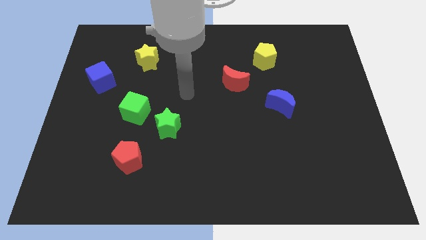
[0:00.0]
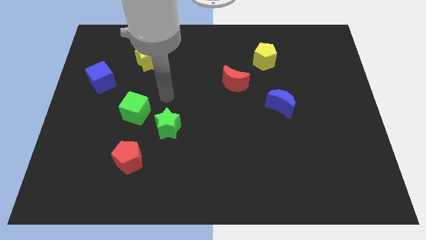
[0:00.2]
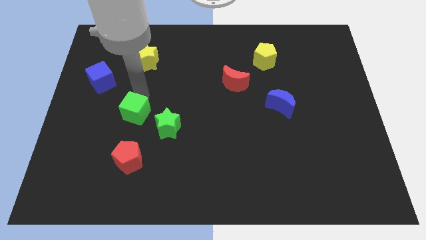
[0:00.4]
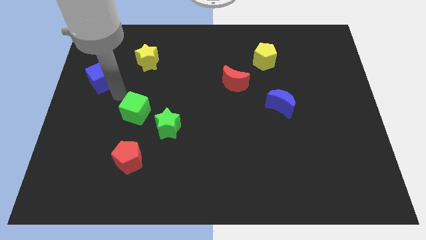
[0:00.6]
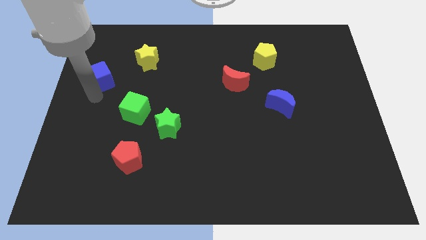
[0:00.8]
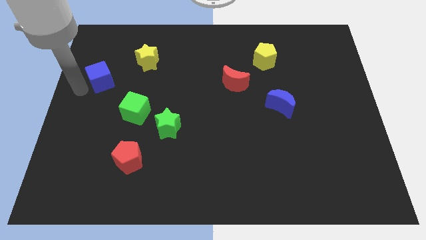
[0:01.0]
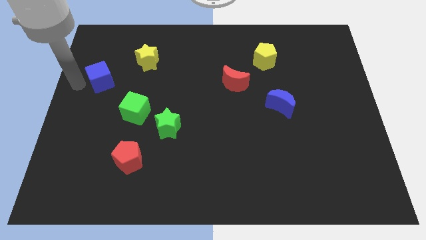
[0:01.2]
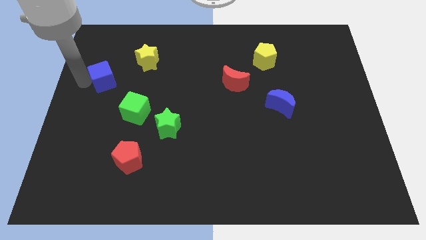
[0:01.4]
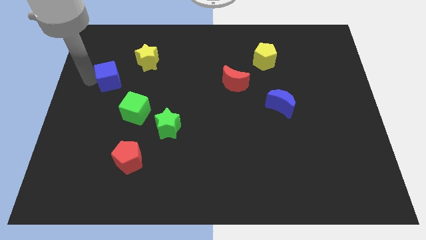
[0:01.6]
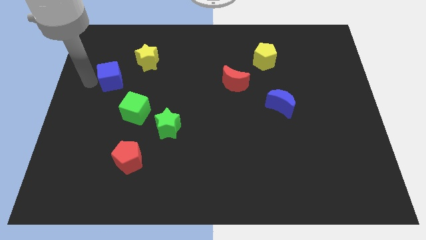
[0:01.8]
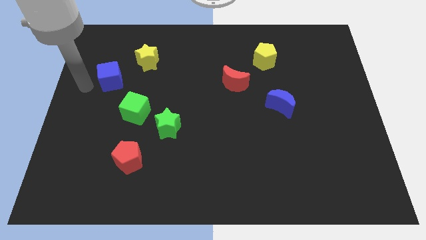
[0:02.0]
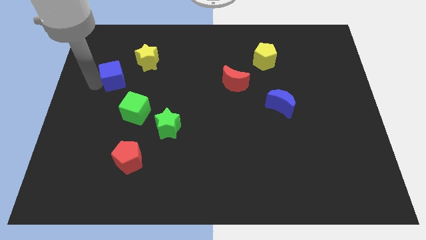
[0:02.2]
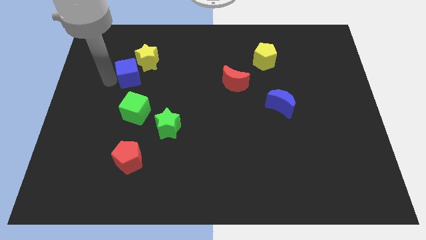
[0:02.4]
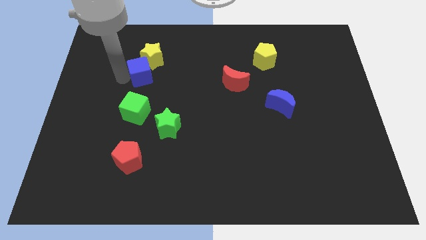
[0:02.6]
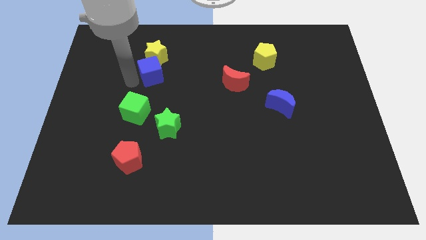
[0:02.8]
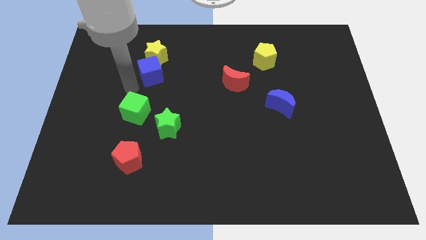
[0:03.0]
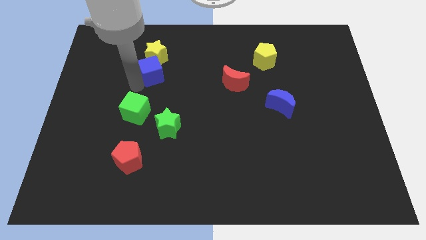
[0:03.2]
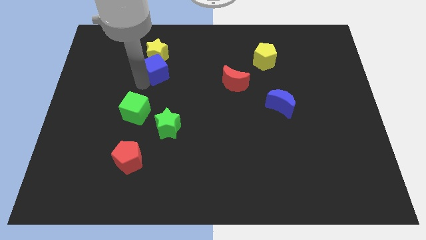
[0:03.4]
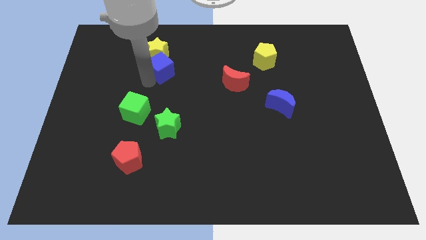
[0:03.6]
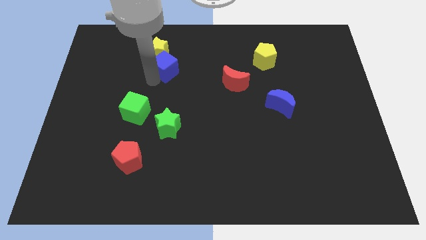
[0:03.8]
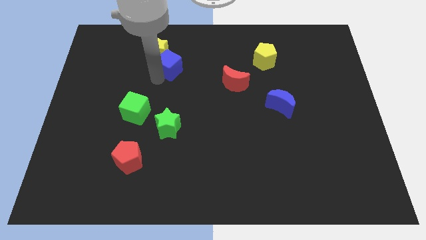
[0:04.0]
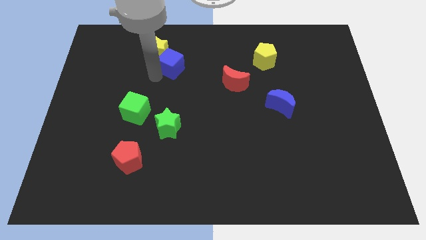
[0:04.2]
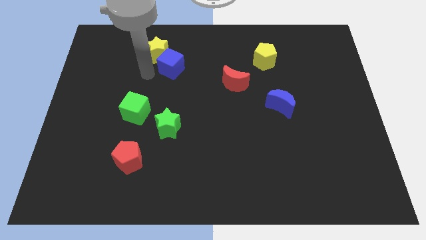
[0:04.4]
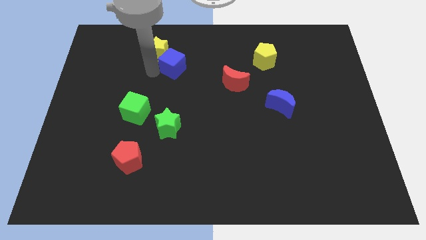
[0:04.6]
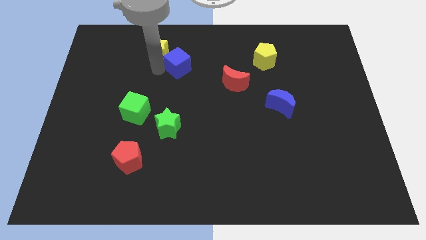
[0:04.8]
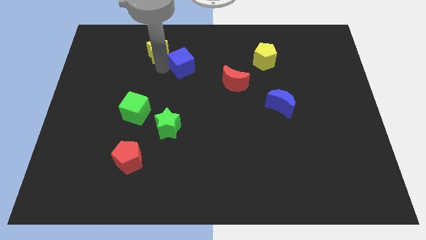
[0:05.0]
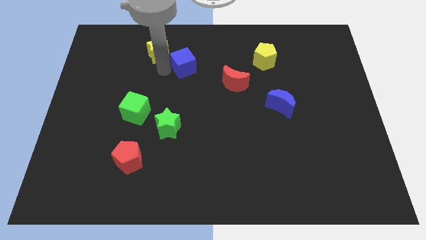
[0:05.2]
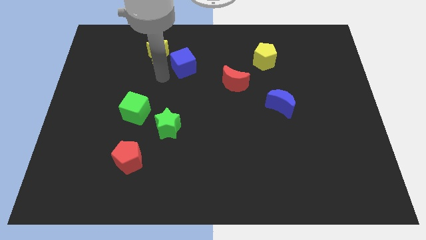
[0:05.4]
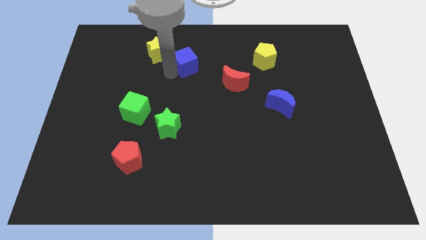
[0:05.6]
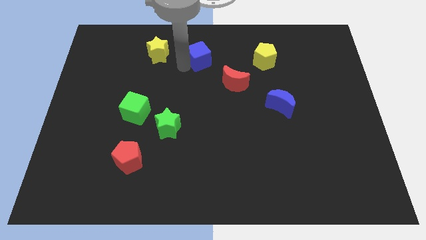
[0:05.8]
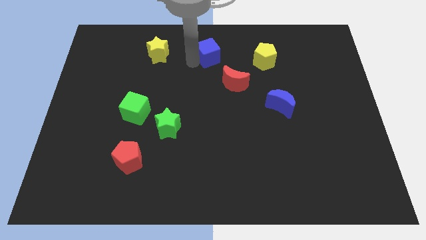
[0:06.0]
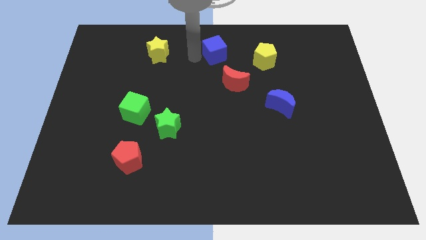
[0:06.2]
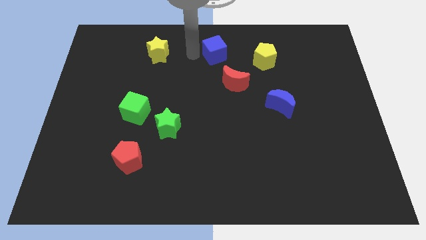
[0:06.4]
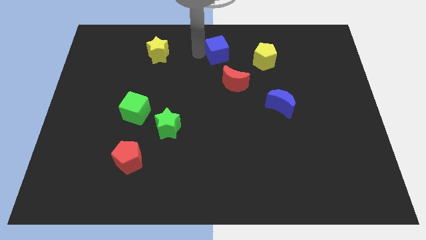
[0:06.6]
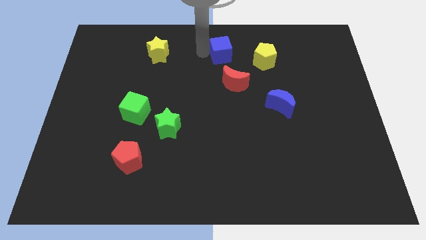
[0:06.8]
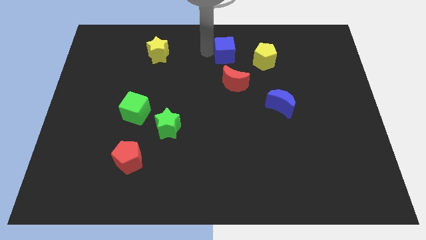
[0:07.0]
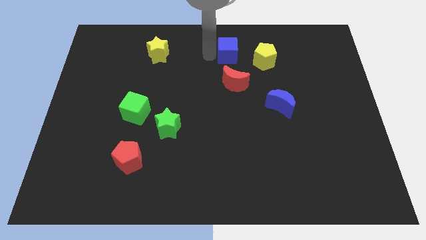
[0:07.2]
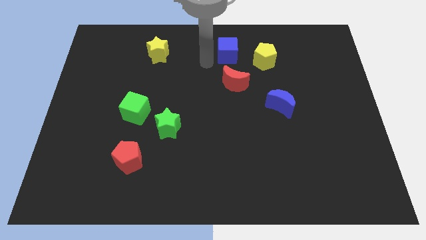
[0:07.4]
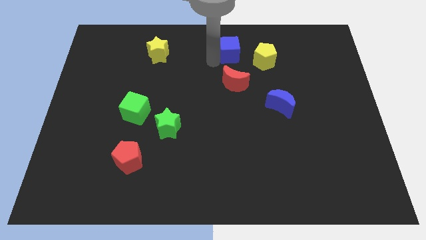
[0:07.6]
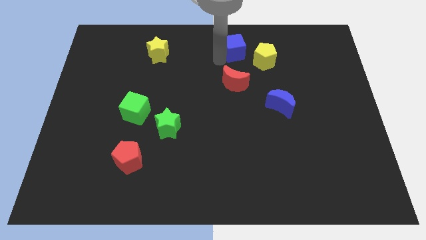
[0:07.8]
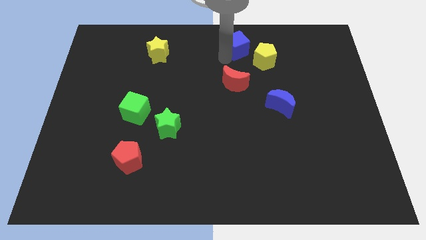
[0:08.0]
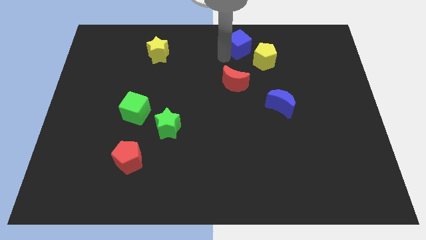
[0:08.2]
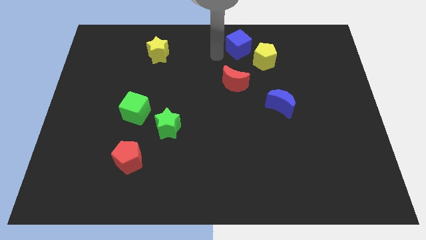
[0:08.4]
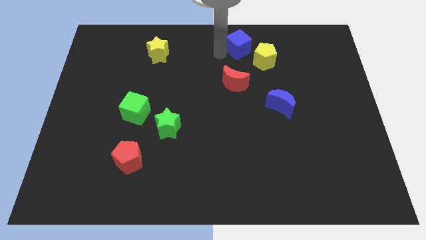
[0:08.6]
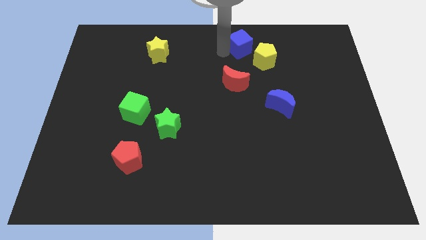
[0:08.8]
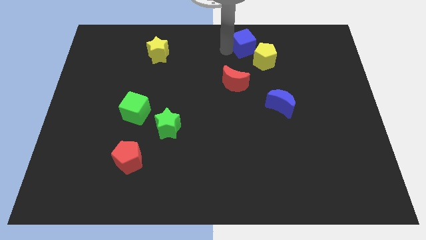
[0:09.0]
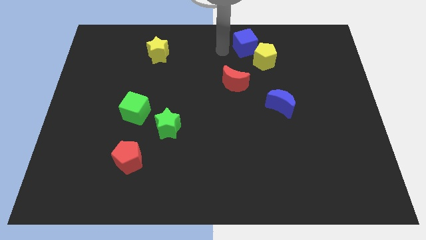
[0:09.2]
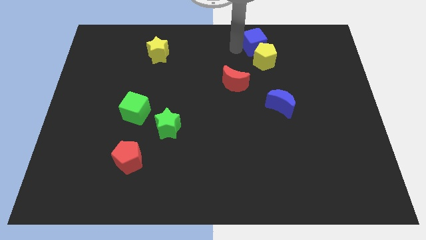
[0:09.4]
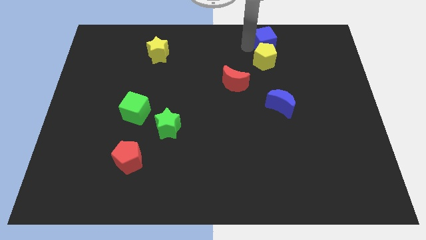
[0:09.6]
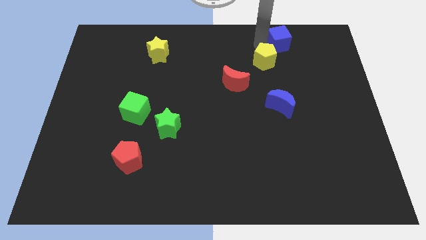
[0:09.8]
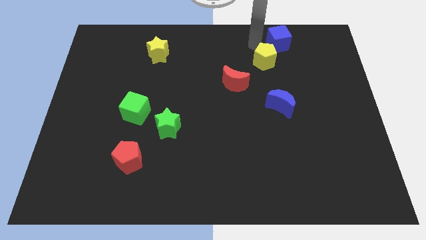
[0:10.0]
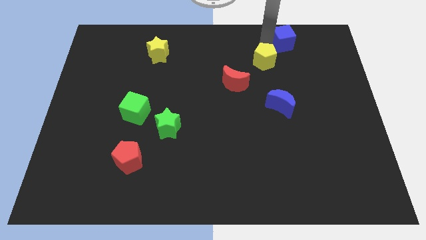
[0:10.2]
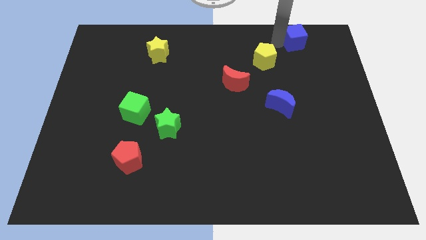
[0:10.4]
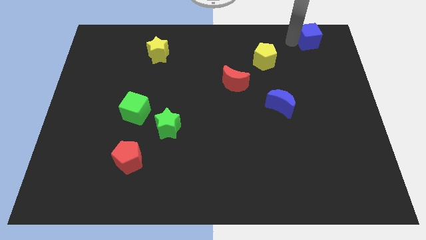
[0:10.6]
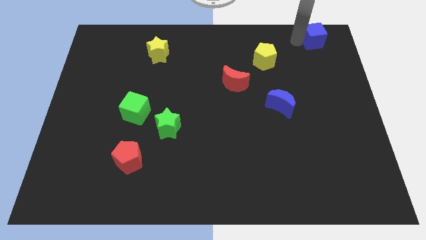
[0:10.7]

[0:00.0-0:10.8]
move the blue cube to the top right corner
